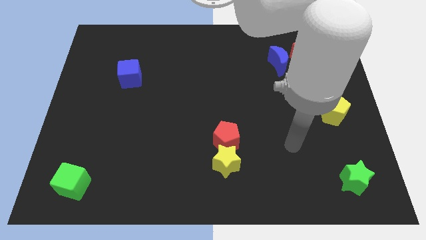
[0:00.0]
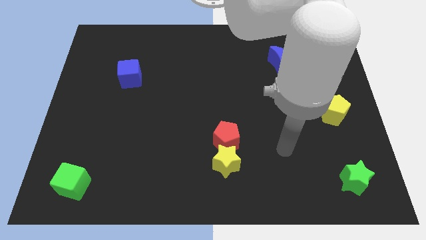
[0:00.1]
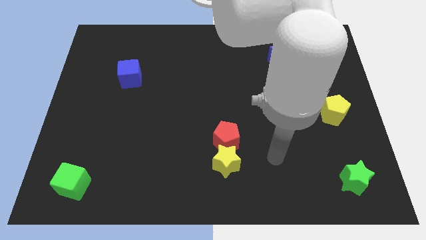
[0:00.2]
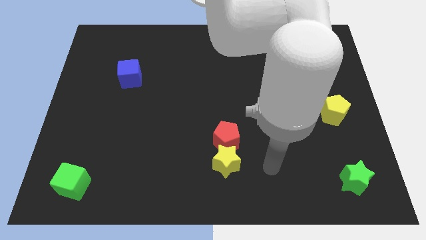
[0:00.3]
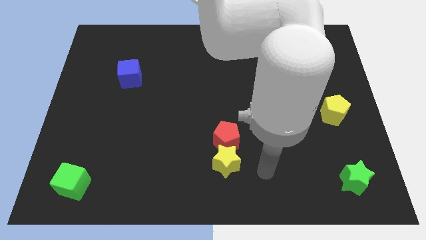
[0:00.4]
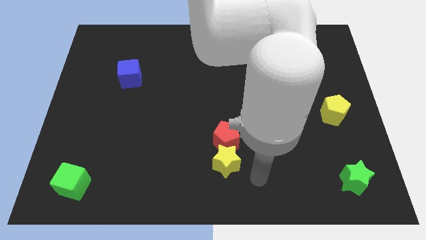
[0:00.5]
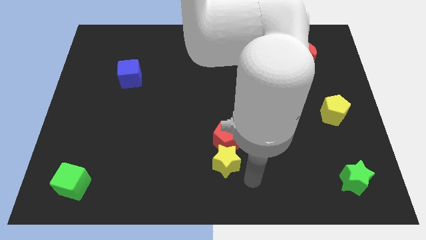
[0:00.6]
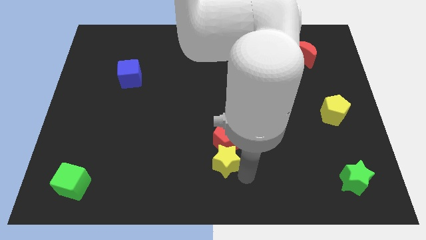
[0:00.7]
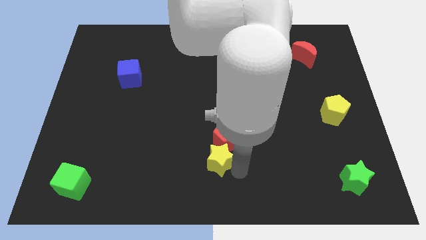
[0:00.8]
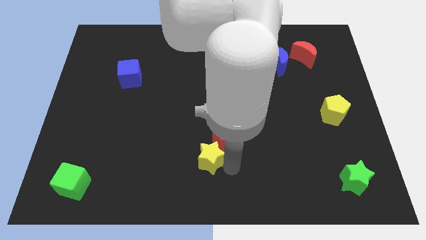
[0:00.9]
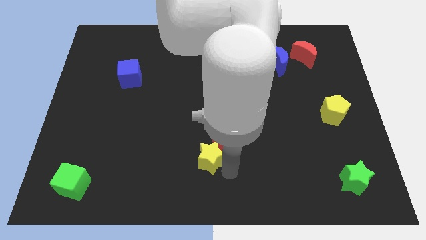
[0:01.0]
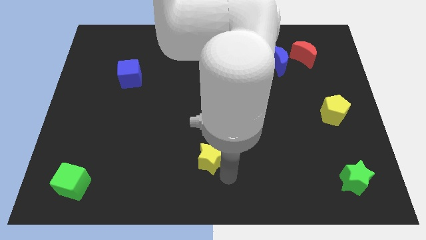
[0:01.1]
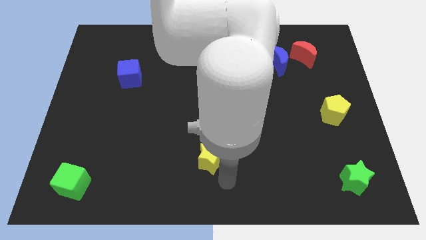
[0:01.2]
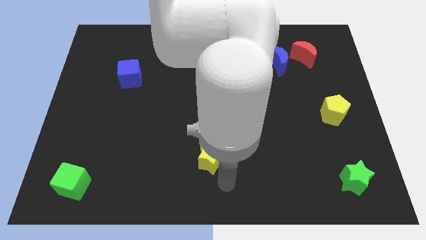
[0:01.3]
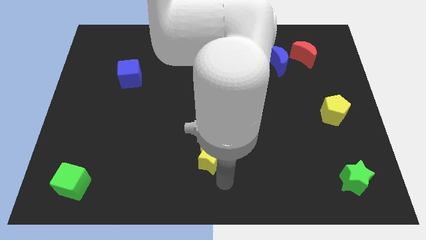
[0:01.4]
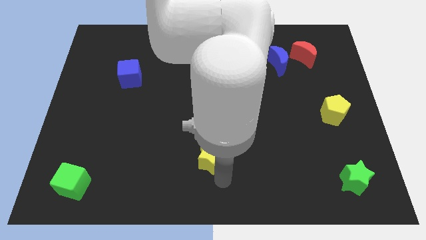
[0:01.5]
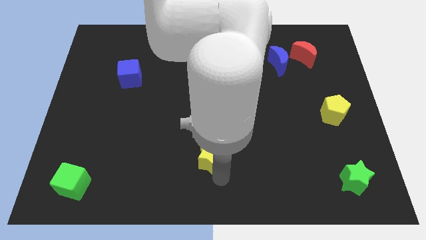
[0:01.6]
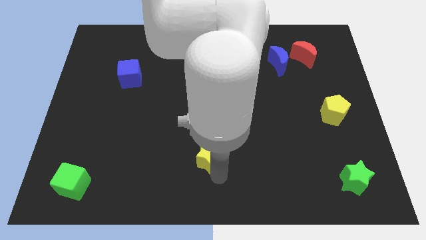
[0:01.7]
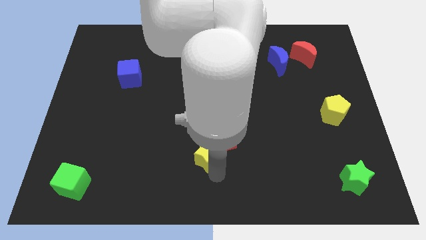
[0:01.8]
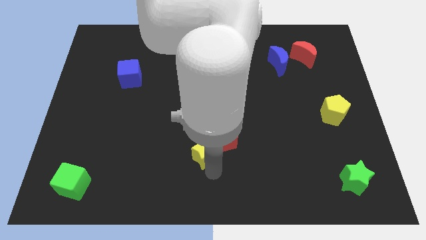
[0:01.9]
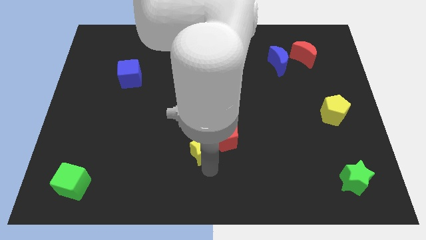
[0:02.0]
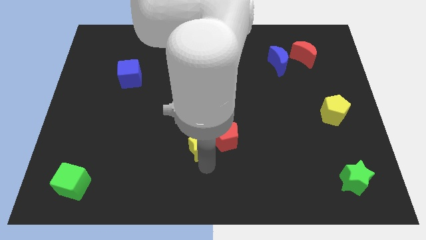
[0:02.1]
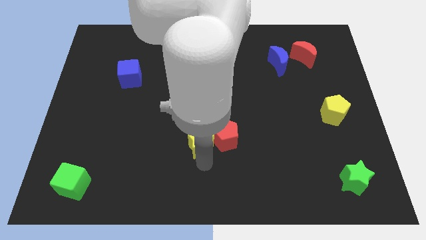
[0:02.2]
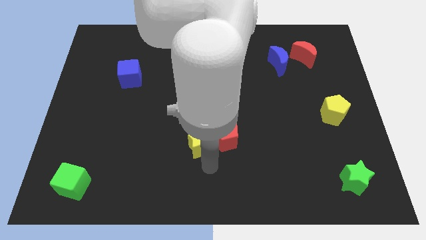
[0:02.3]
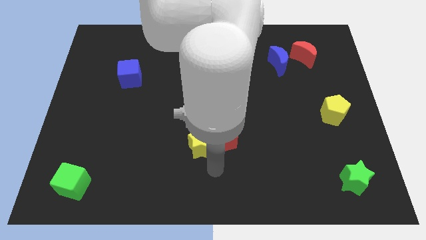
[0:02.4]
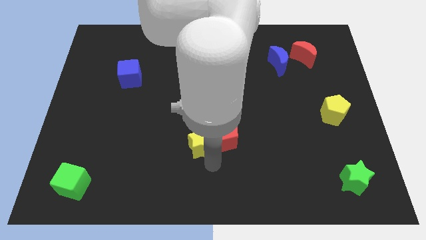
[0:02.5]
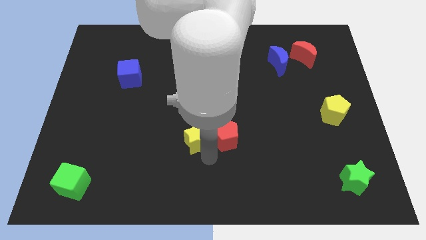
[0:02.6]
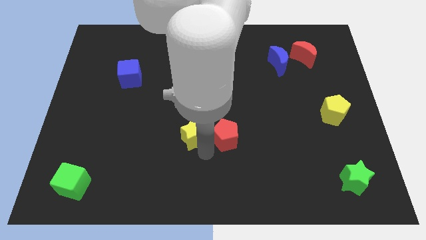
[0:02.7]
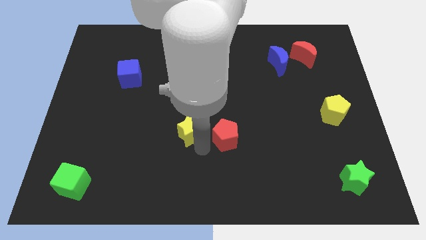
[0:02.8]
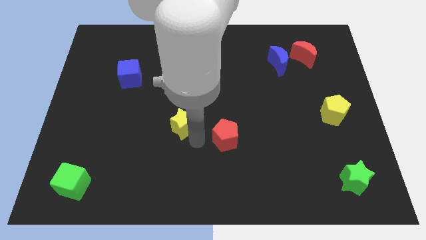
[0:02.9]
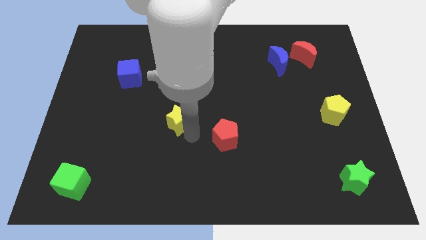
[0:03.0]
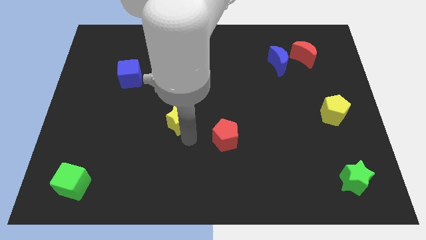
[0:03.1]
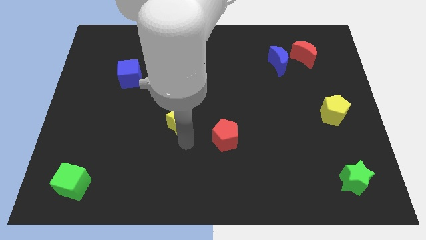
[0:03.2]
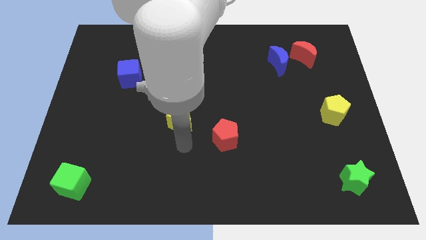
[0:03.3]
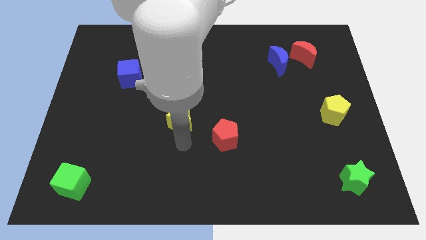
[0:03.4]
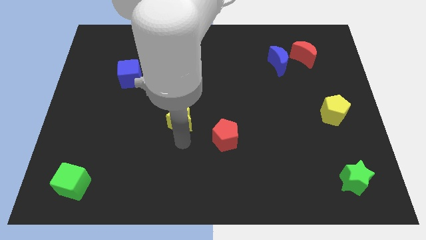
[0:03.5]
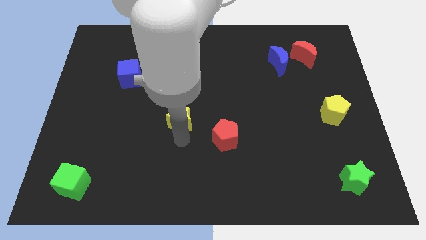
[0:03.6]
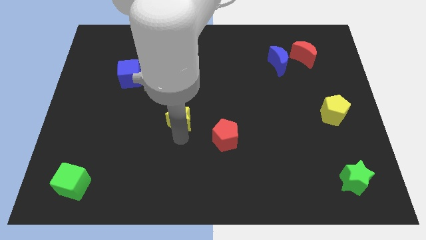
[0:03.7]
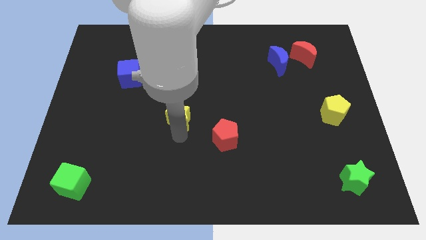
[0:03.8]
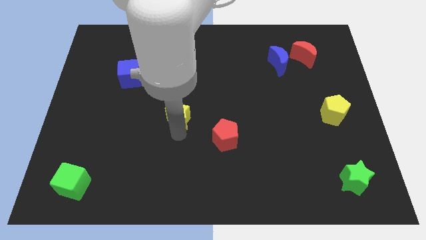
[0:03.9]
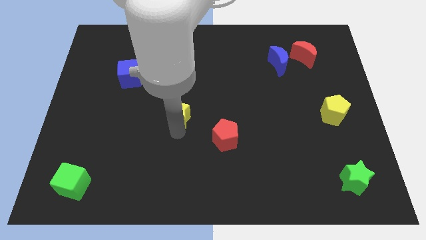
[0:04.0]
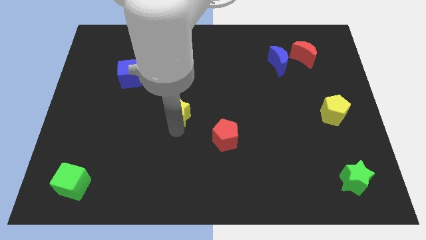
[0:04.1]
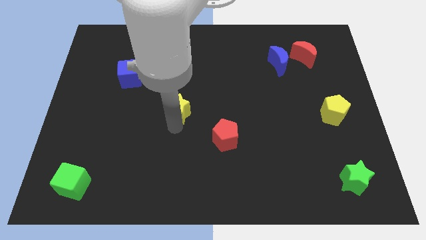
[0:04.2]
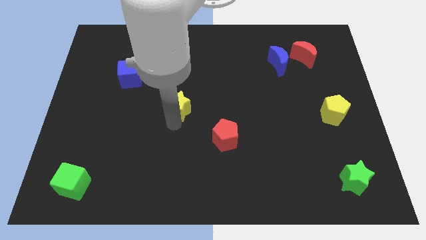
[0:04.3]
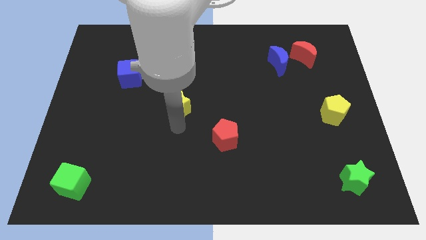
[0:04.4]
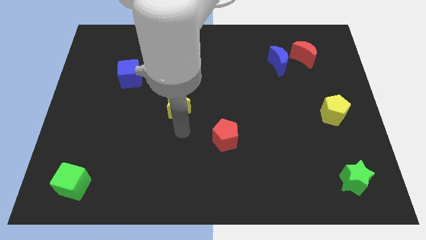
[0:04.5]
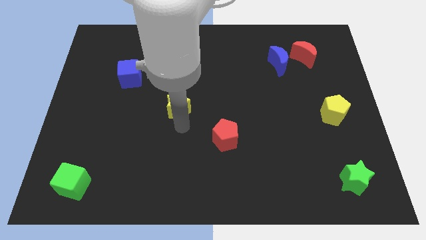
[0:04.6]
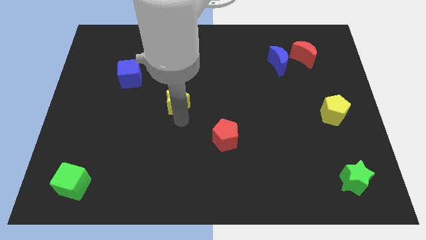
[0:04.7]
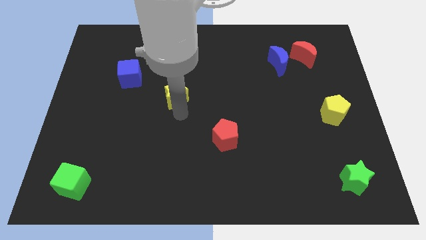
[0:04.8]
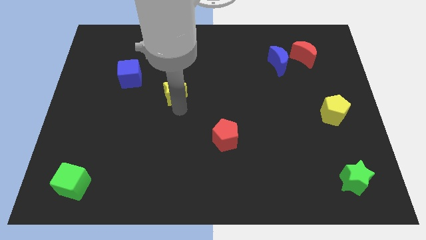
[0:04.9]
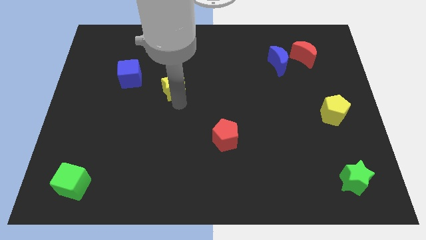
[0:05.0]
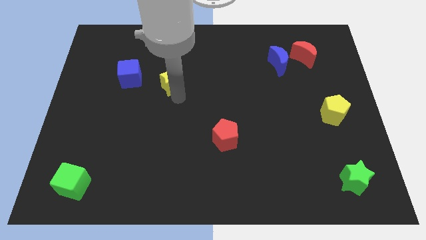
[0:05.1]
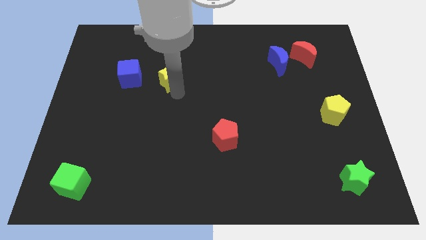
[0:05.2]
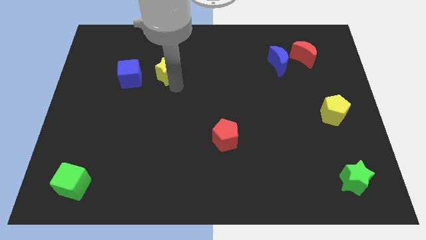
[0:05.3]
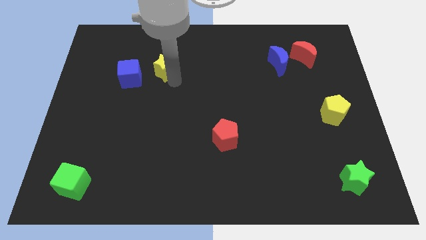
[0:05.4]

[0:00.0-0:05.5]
put the yellow star diagonally up and to the right of the blue cube
